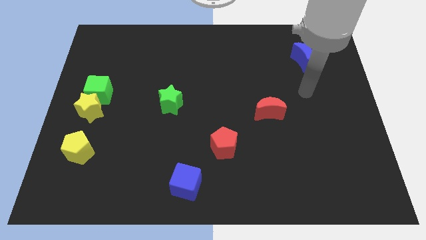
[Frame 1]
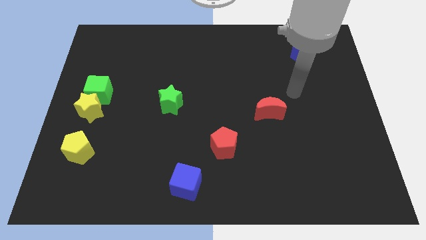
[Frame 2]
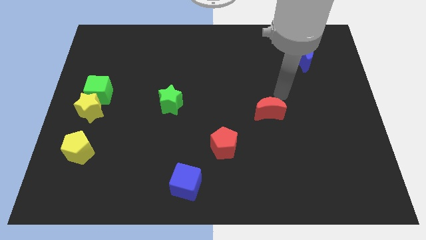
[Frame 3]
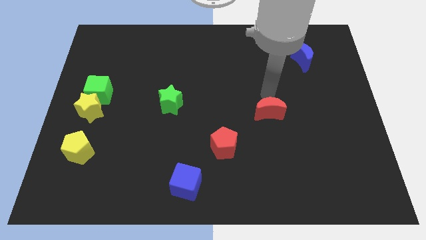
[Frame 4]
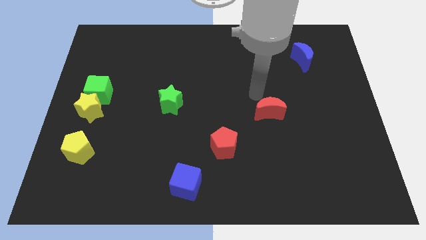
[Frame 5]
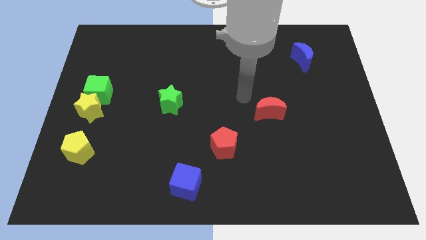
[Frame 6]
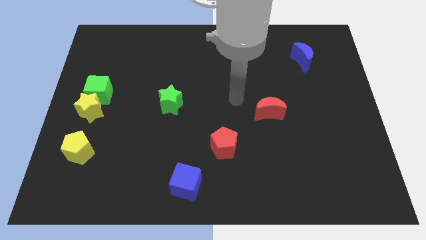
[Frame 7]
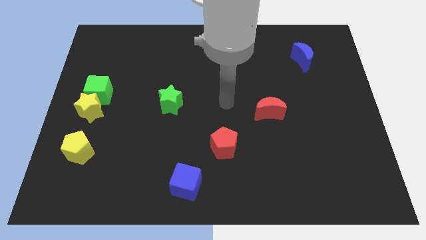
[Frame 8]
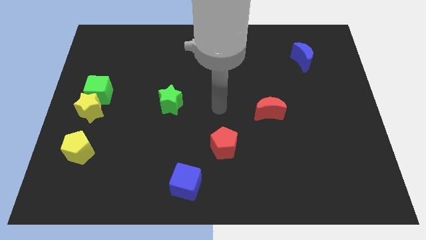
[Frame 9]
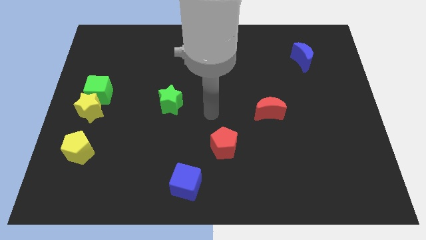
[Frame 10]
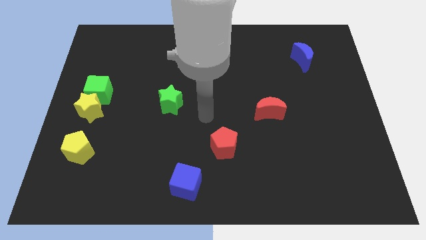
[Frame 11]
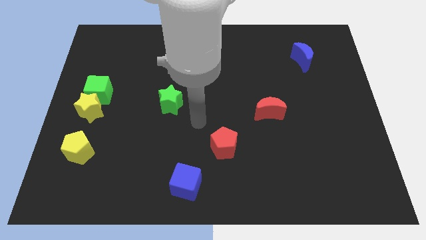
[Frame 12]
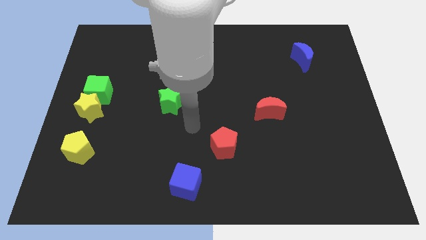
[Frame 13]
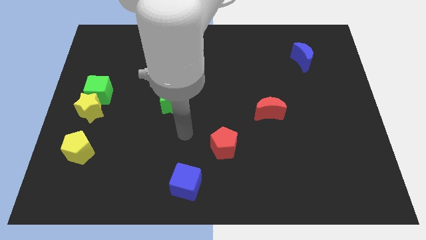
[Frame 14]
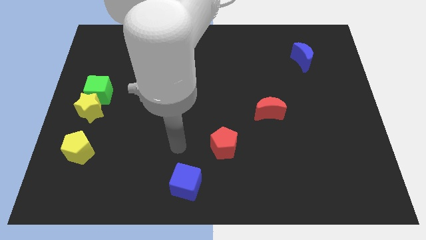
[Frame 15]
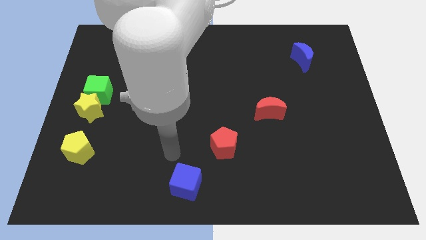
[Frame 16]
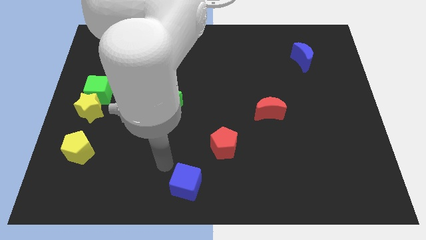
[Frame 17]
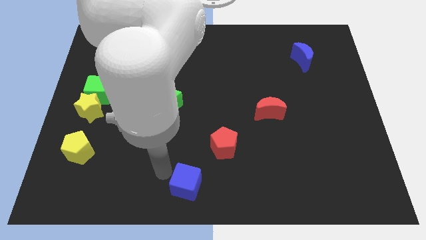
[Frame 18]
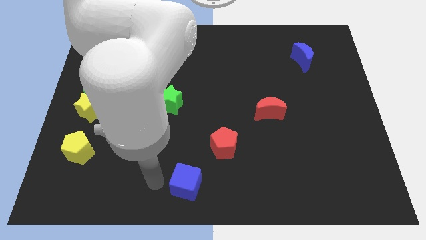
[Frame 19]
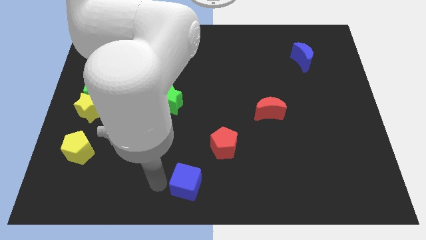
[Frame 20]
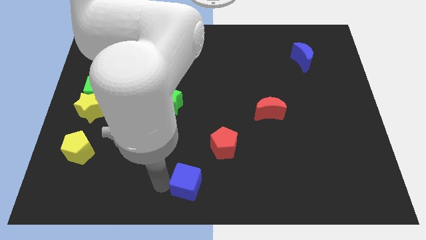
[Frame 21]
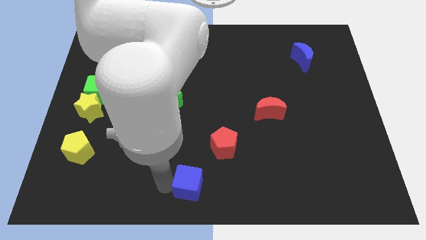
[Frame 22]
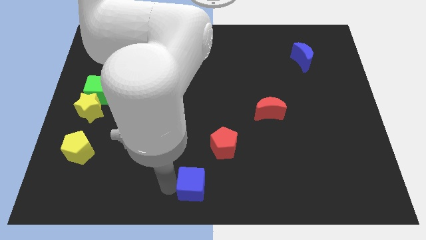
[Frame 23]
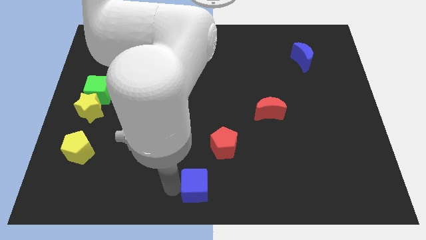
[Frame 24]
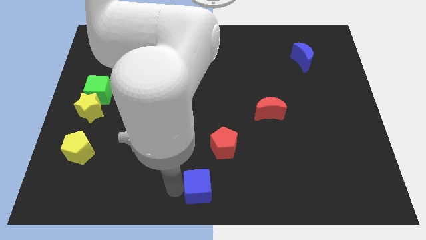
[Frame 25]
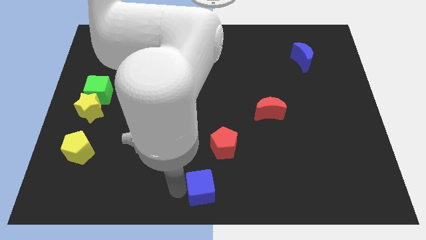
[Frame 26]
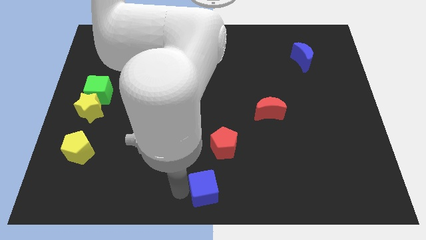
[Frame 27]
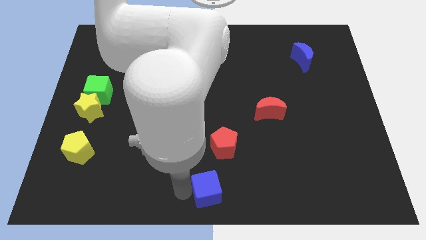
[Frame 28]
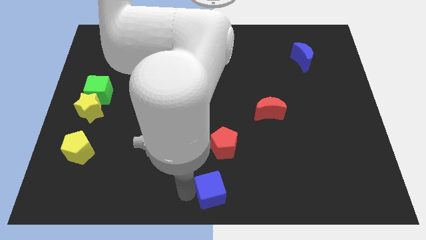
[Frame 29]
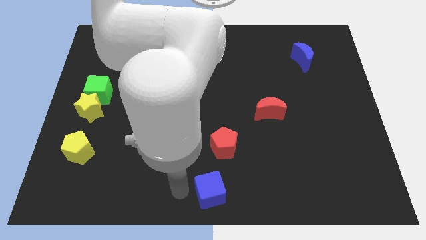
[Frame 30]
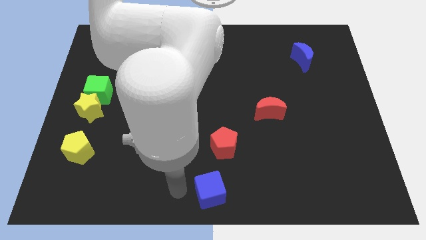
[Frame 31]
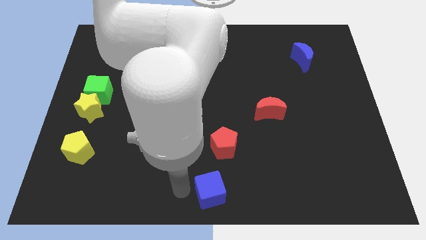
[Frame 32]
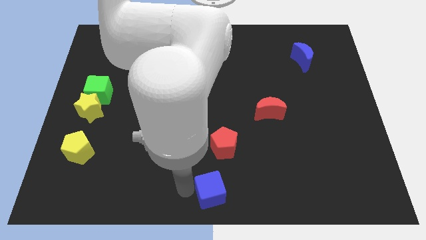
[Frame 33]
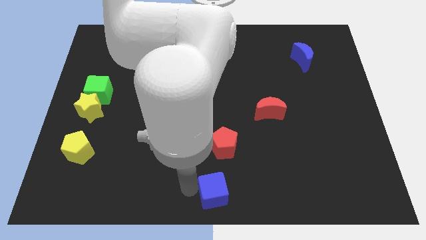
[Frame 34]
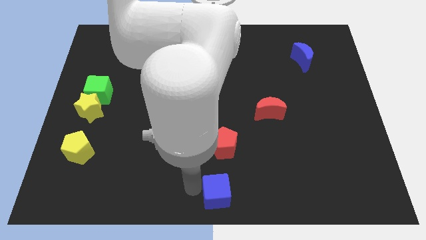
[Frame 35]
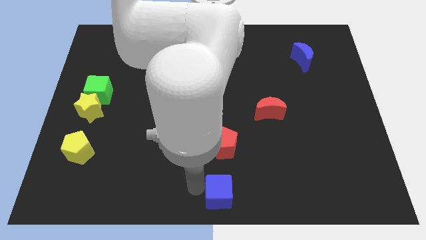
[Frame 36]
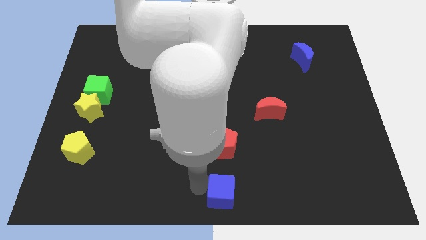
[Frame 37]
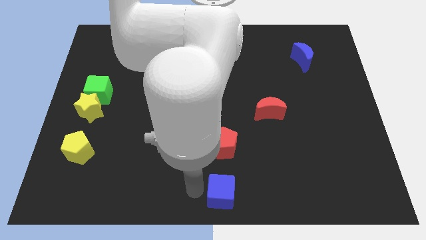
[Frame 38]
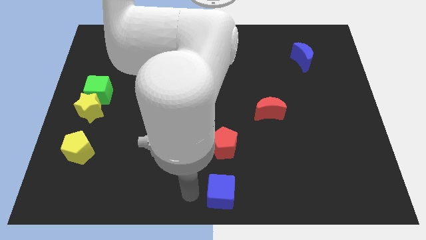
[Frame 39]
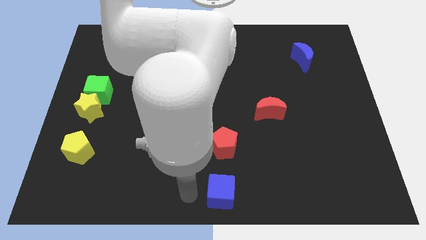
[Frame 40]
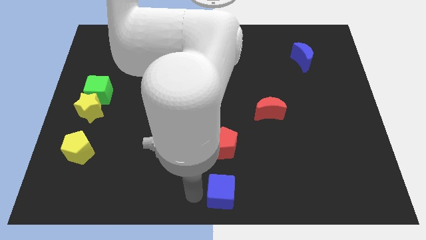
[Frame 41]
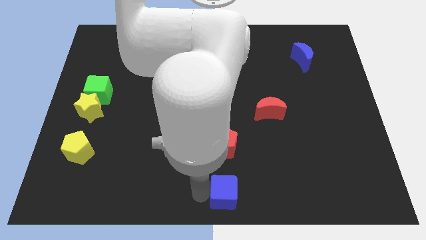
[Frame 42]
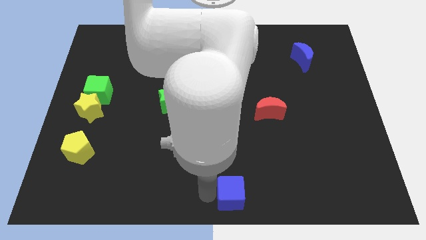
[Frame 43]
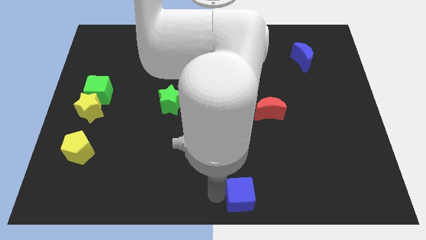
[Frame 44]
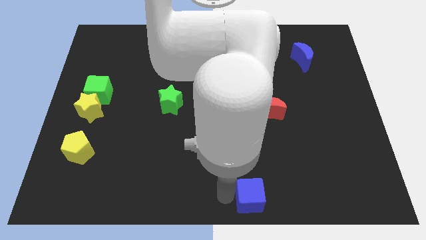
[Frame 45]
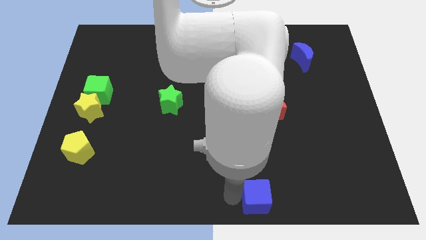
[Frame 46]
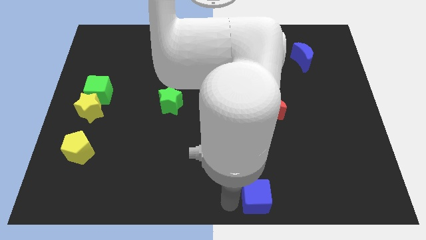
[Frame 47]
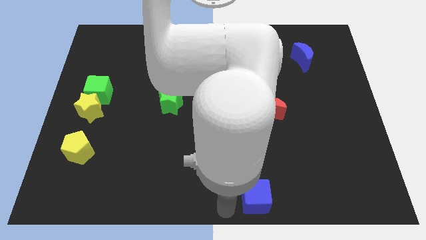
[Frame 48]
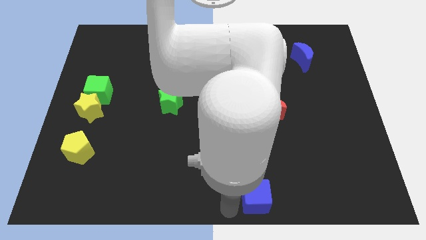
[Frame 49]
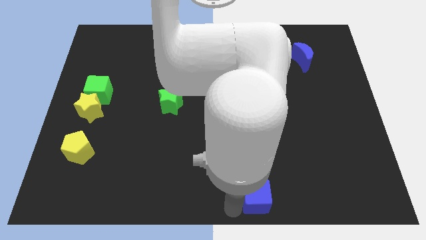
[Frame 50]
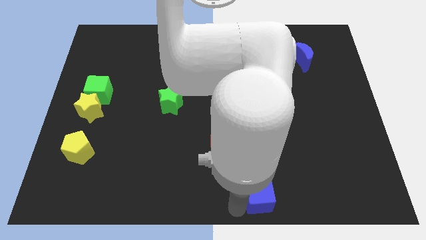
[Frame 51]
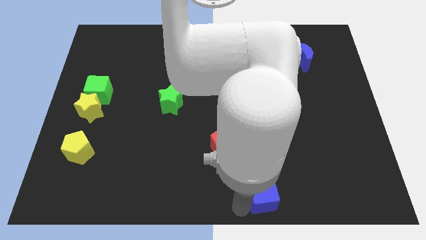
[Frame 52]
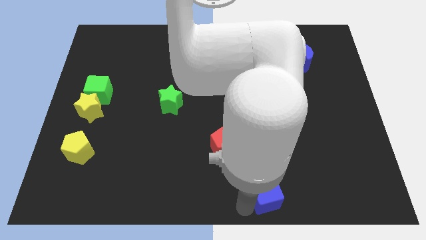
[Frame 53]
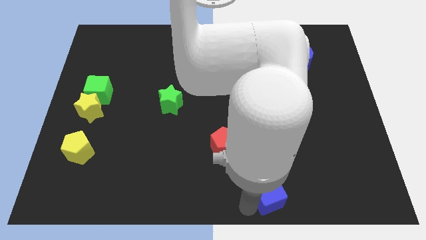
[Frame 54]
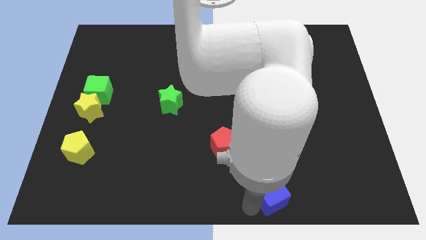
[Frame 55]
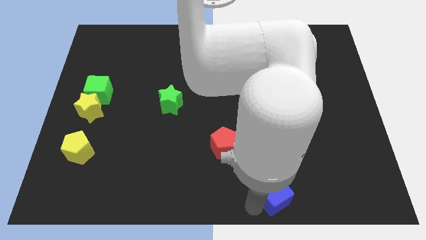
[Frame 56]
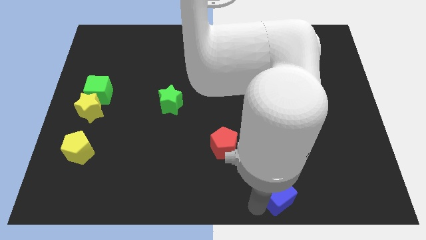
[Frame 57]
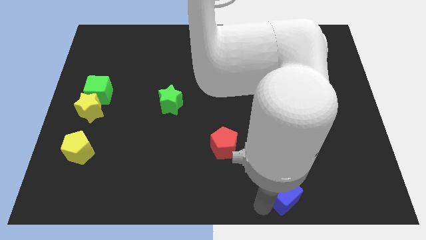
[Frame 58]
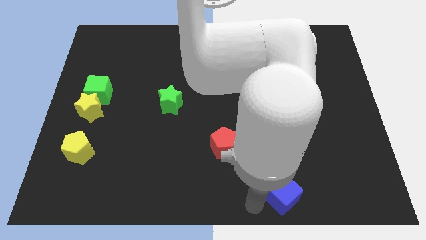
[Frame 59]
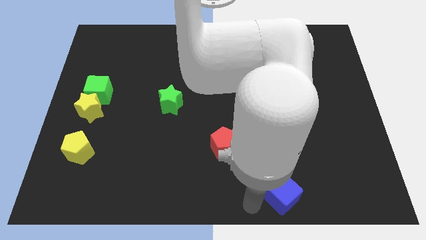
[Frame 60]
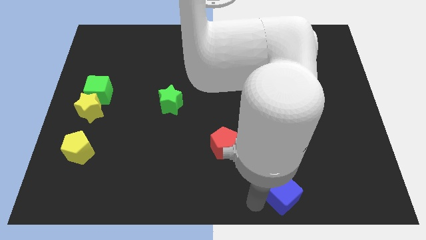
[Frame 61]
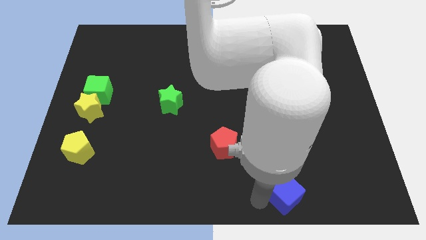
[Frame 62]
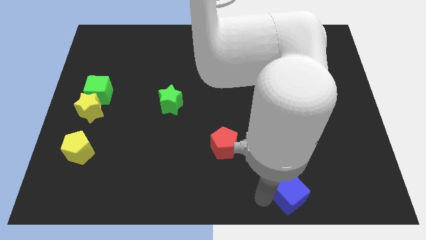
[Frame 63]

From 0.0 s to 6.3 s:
slide the blue cube to the right

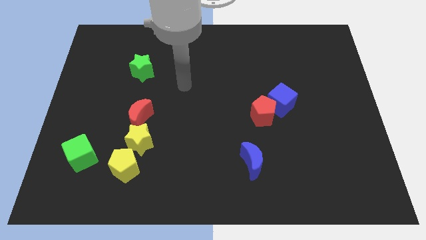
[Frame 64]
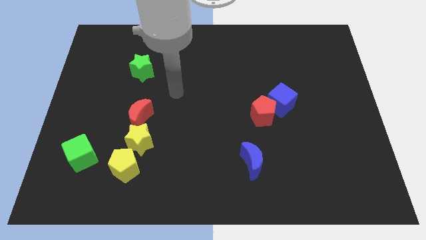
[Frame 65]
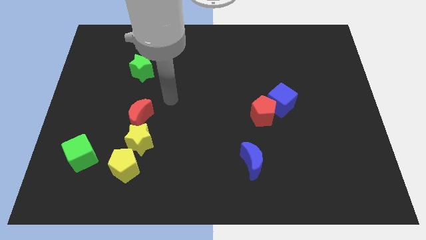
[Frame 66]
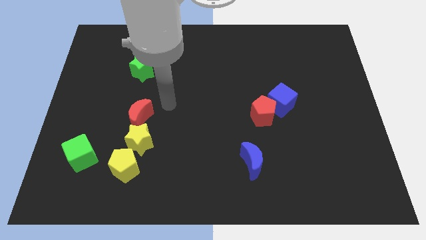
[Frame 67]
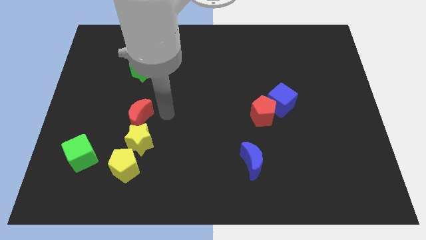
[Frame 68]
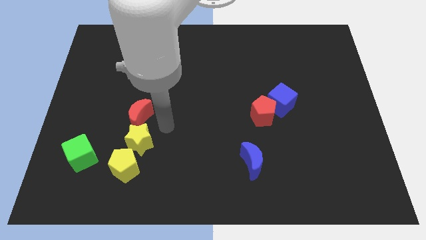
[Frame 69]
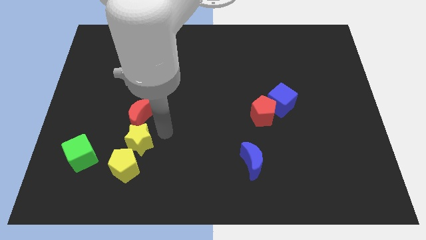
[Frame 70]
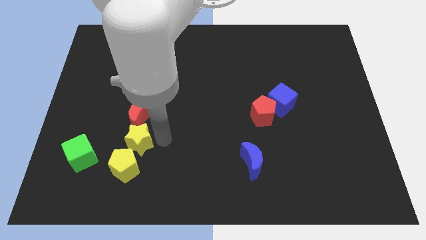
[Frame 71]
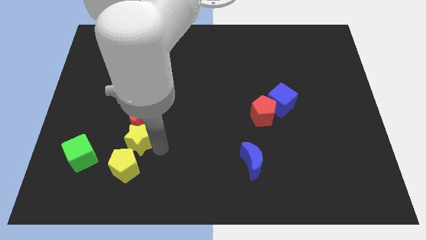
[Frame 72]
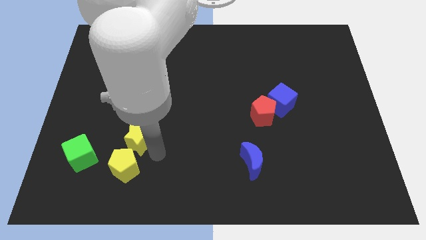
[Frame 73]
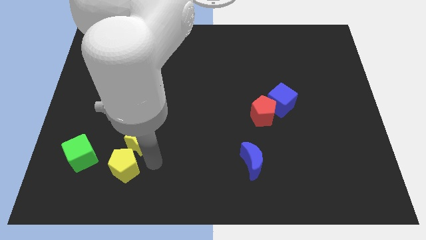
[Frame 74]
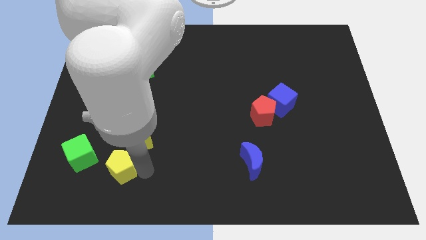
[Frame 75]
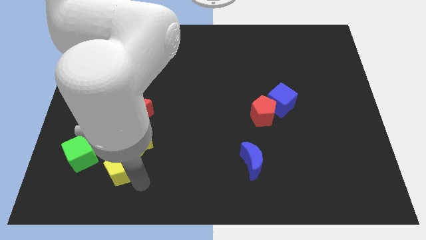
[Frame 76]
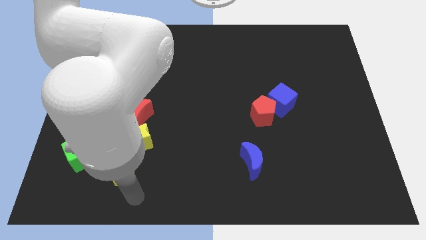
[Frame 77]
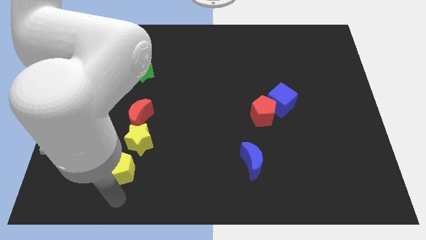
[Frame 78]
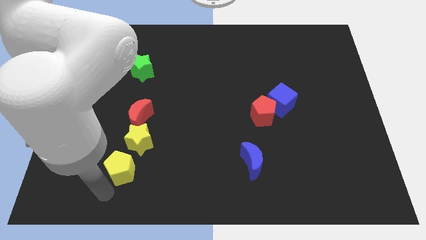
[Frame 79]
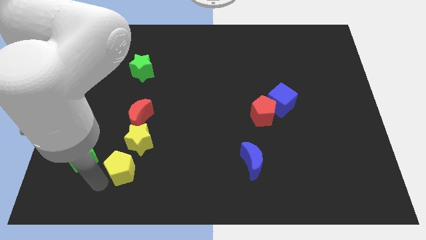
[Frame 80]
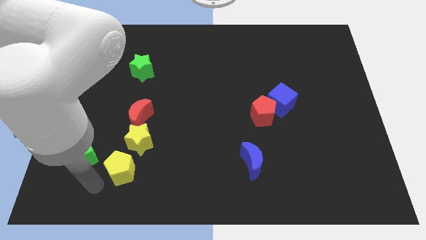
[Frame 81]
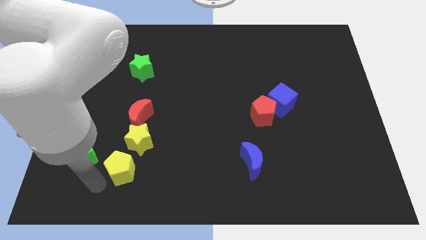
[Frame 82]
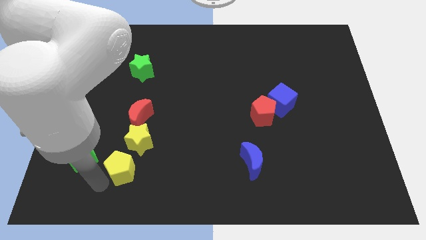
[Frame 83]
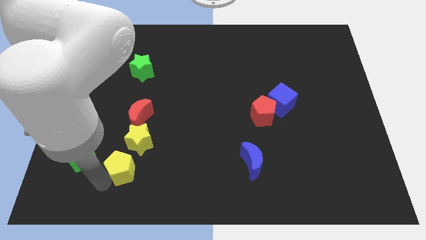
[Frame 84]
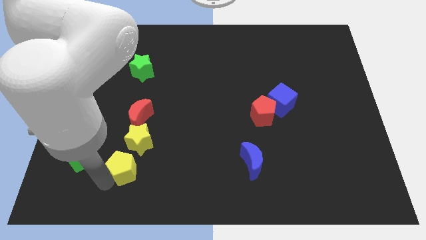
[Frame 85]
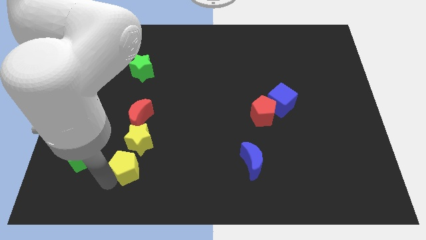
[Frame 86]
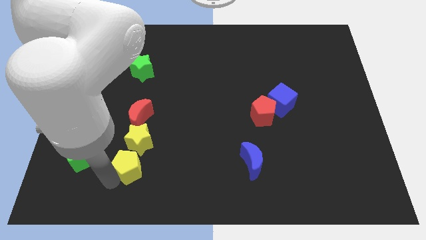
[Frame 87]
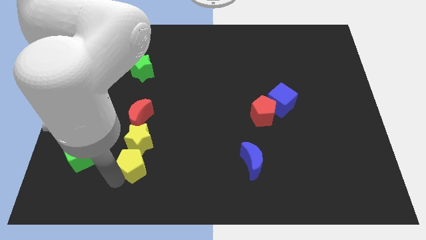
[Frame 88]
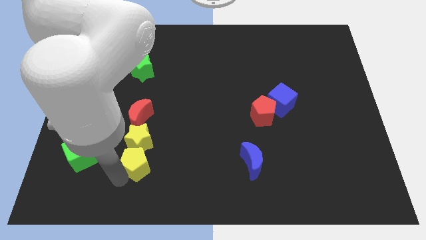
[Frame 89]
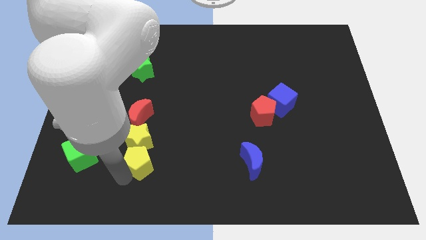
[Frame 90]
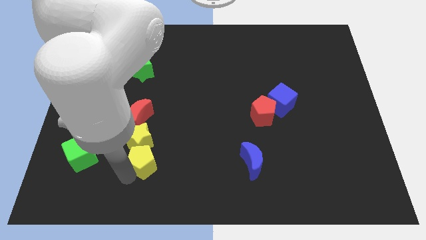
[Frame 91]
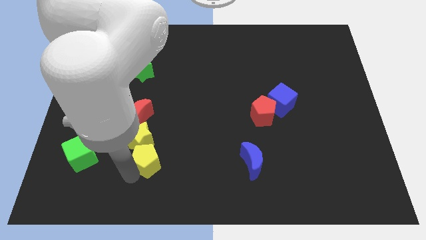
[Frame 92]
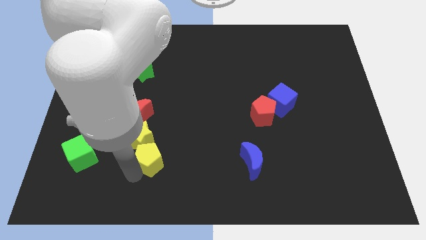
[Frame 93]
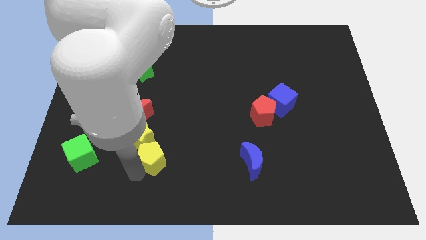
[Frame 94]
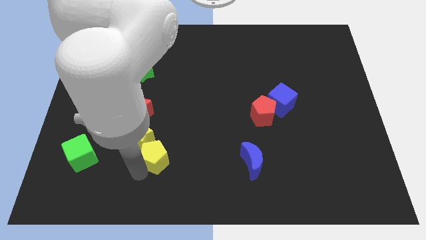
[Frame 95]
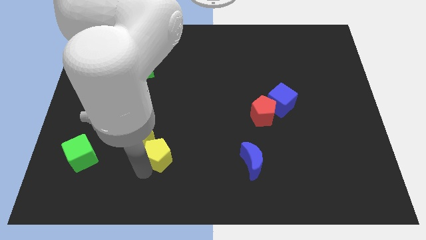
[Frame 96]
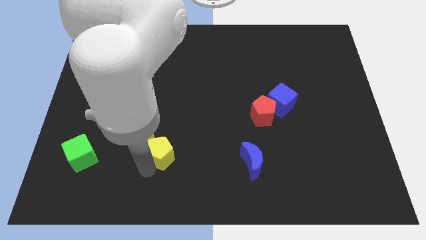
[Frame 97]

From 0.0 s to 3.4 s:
push the yellow pentagon diagonally upwards and to the right a little
